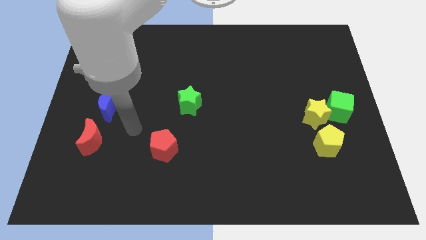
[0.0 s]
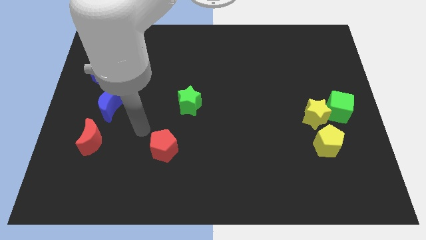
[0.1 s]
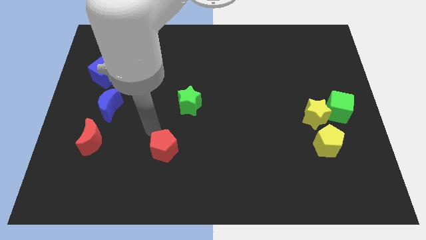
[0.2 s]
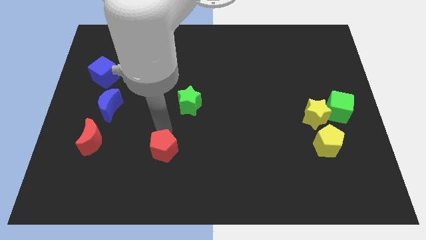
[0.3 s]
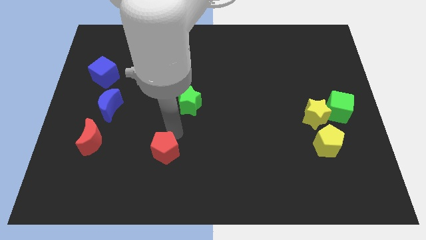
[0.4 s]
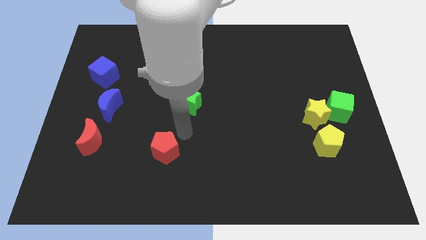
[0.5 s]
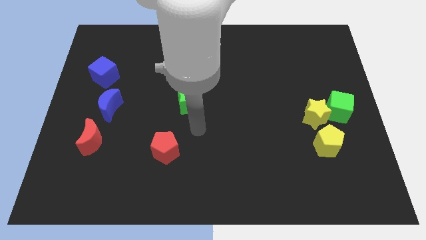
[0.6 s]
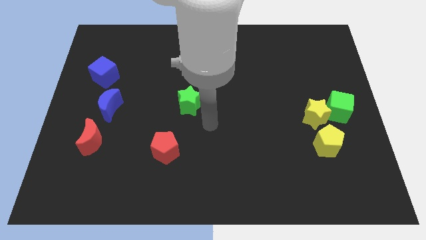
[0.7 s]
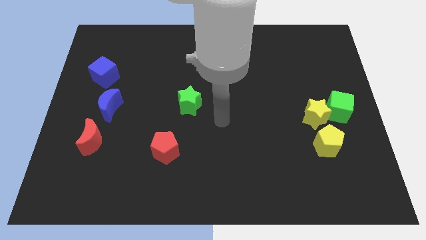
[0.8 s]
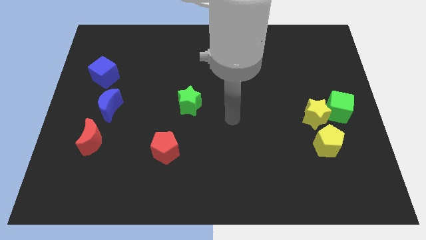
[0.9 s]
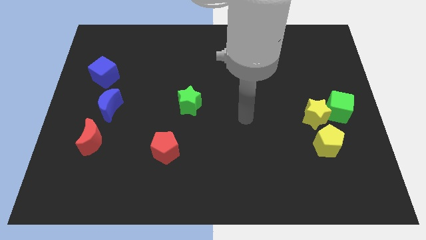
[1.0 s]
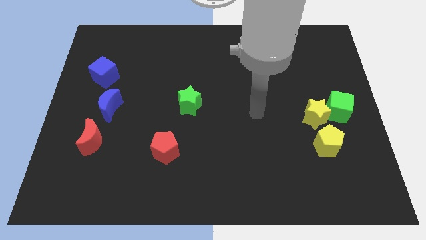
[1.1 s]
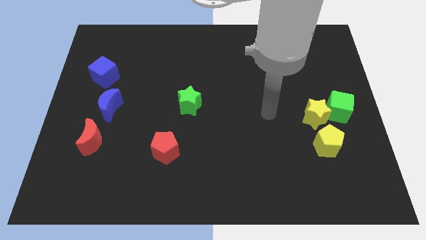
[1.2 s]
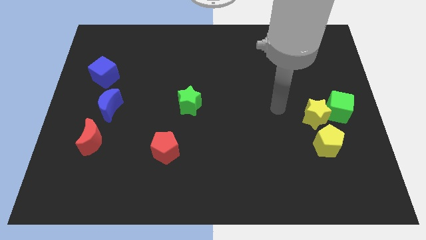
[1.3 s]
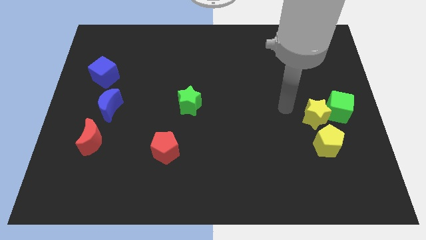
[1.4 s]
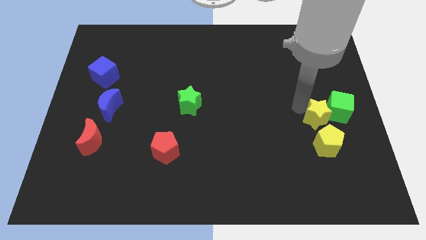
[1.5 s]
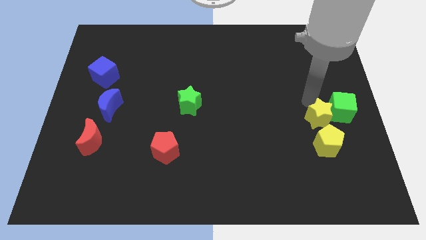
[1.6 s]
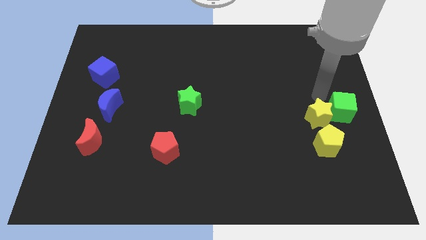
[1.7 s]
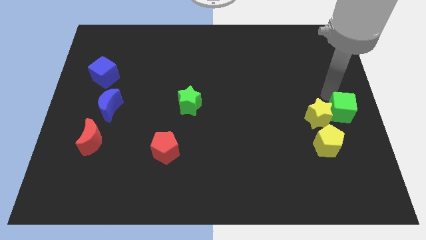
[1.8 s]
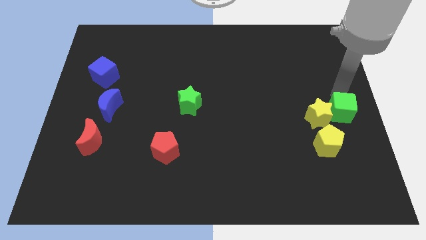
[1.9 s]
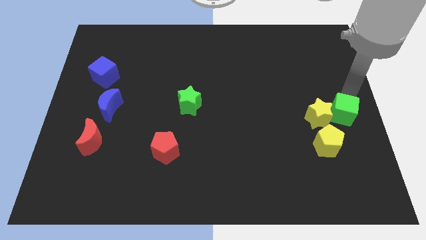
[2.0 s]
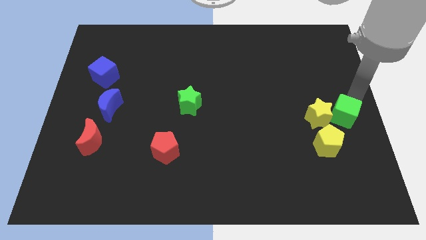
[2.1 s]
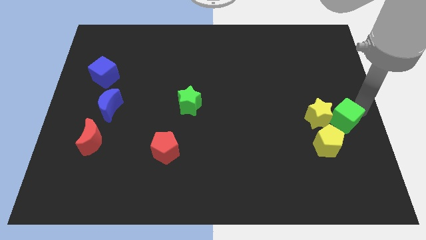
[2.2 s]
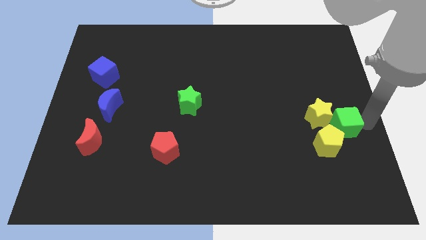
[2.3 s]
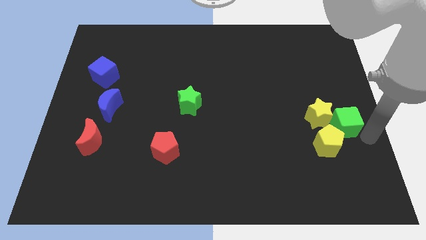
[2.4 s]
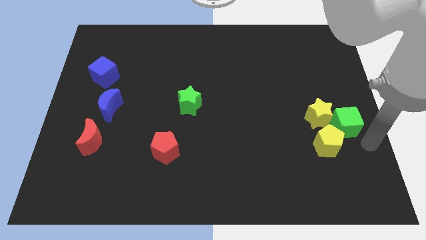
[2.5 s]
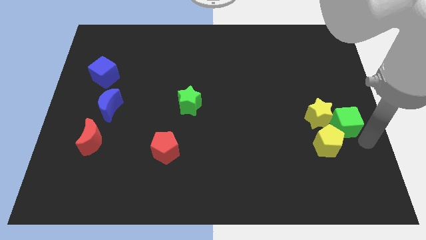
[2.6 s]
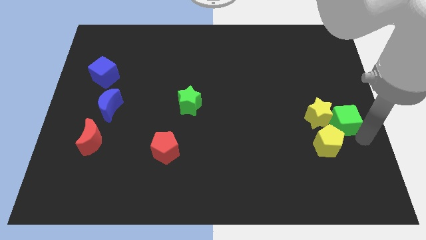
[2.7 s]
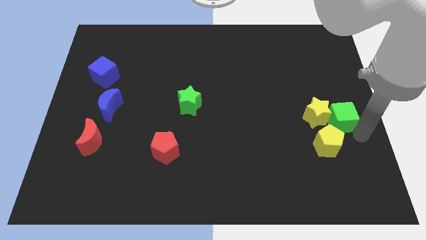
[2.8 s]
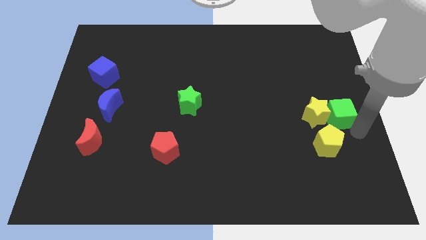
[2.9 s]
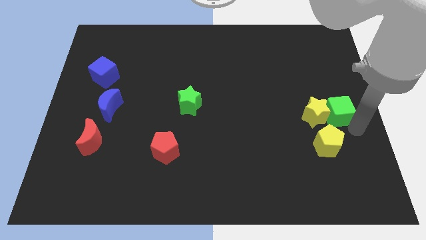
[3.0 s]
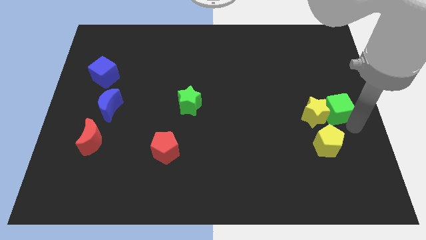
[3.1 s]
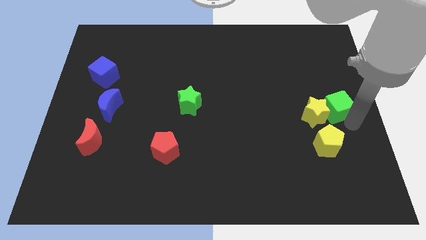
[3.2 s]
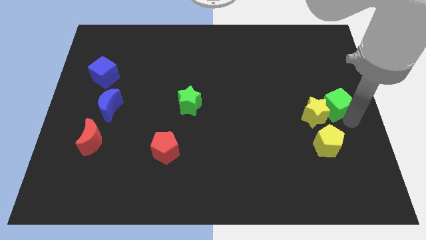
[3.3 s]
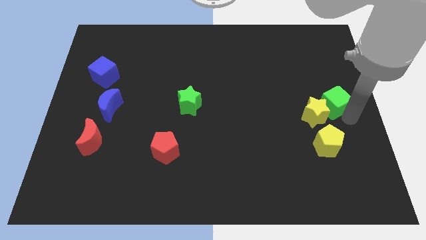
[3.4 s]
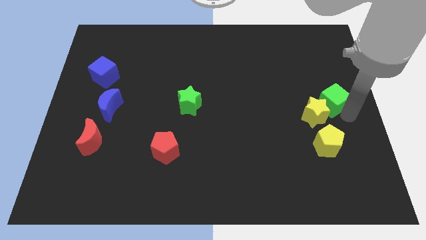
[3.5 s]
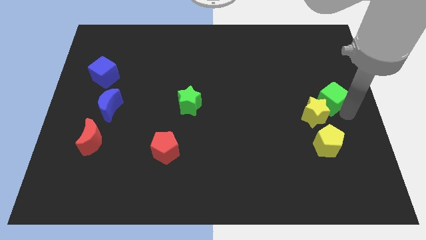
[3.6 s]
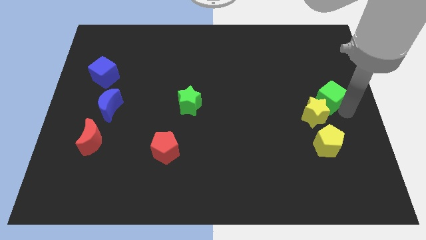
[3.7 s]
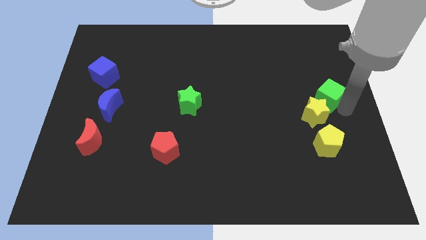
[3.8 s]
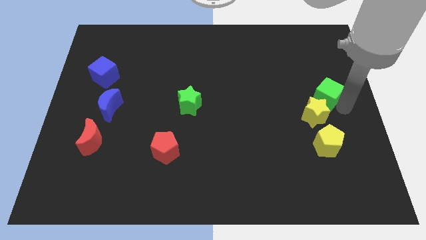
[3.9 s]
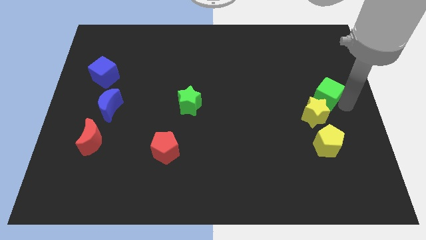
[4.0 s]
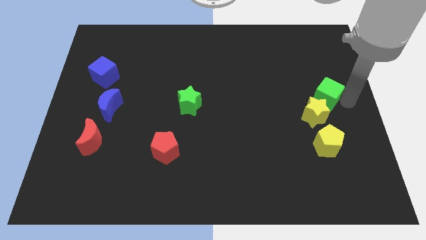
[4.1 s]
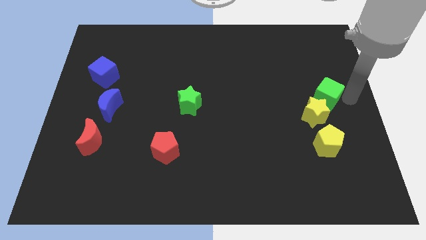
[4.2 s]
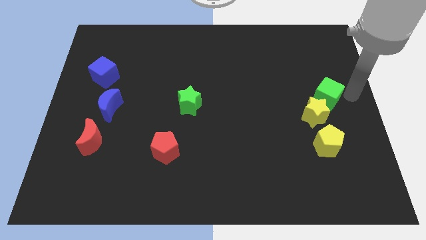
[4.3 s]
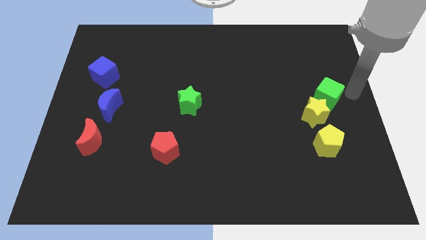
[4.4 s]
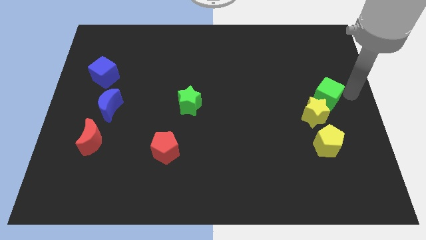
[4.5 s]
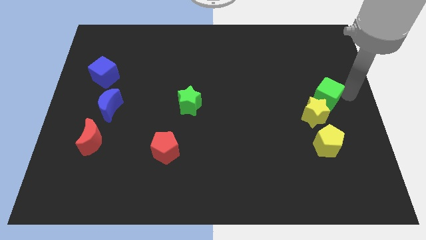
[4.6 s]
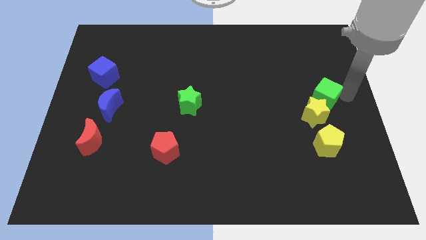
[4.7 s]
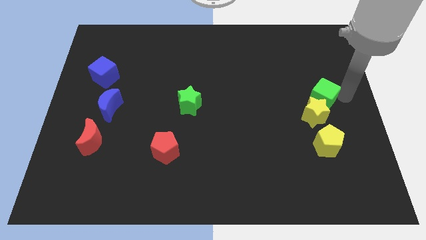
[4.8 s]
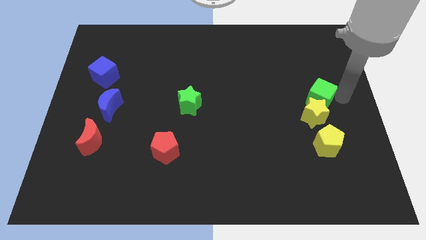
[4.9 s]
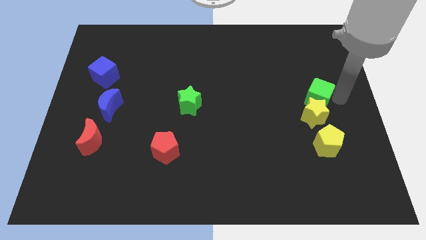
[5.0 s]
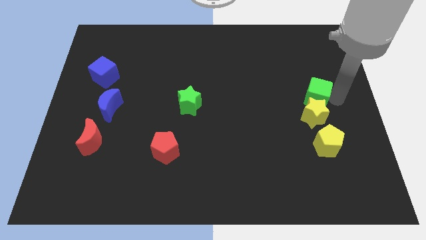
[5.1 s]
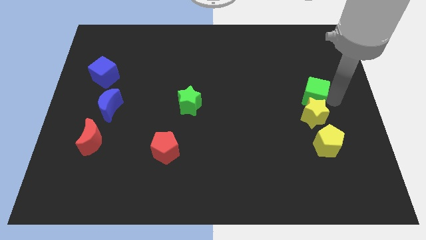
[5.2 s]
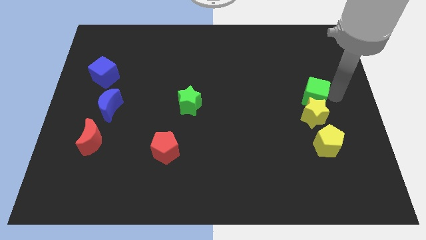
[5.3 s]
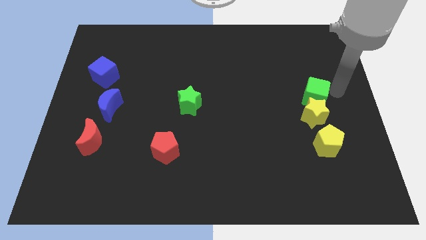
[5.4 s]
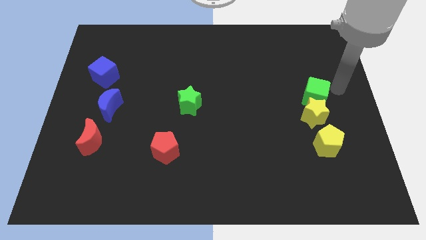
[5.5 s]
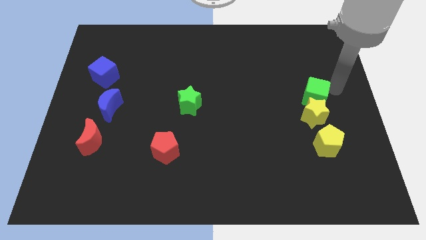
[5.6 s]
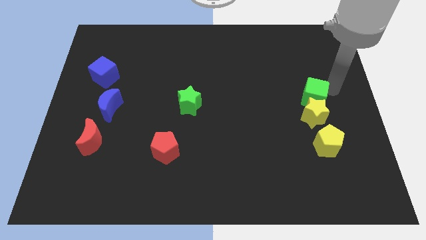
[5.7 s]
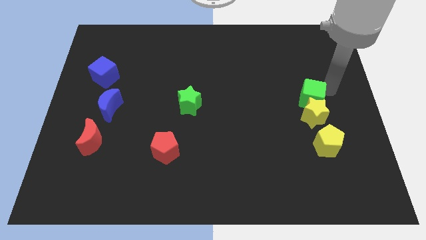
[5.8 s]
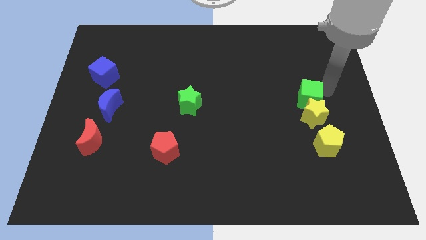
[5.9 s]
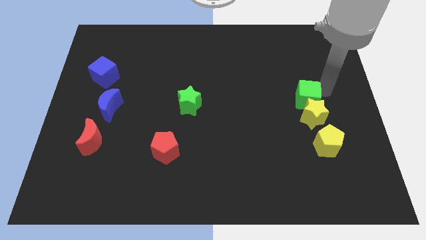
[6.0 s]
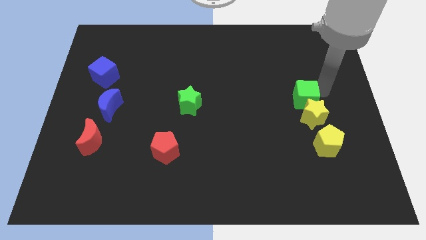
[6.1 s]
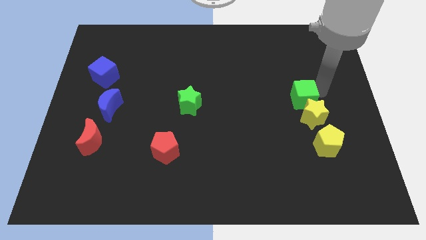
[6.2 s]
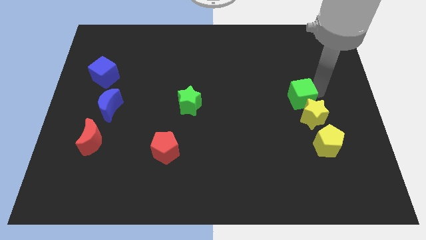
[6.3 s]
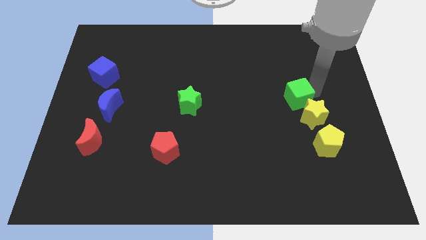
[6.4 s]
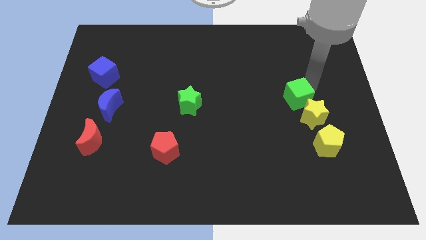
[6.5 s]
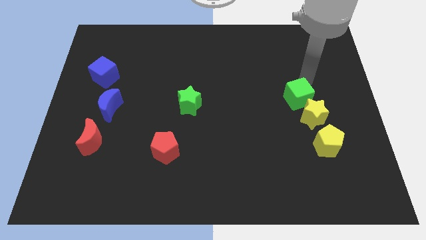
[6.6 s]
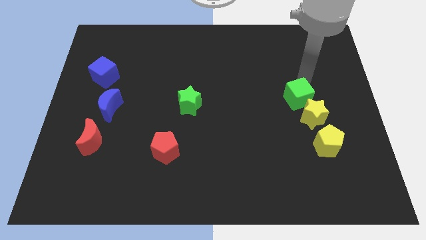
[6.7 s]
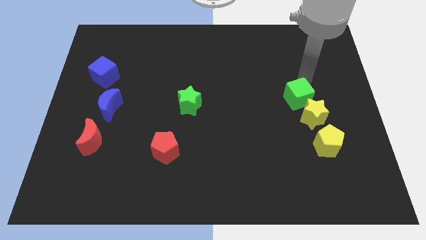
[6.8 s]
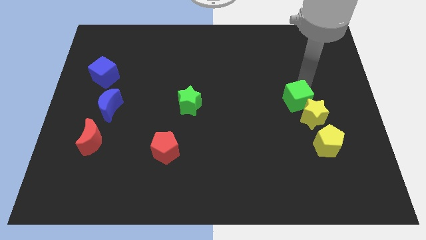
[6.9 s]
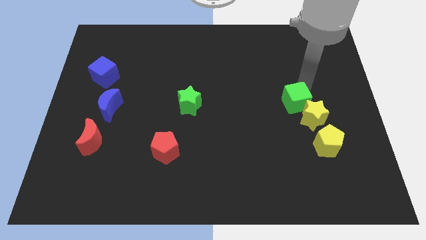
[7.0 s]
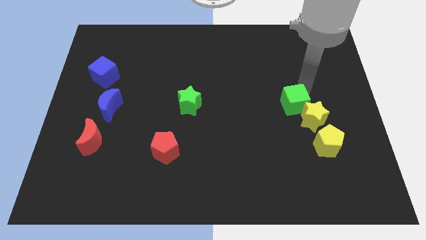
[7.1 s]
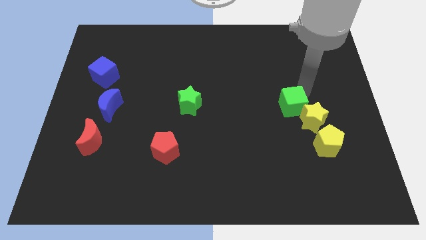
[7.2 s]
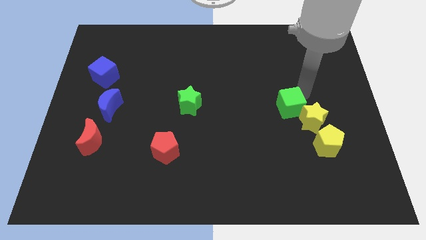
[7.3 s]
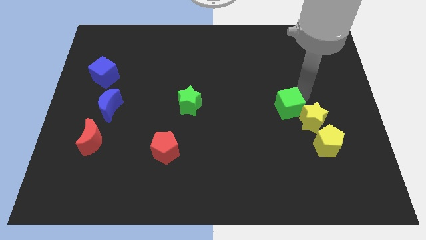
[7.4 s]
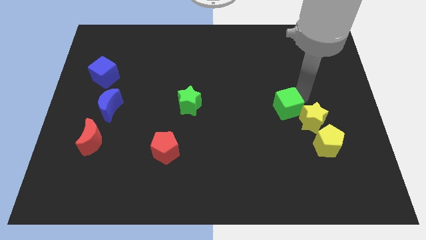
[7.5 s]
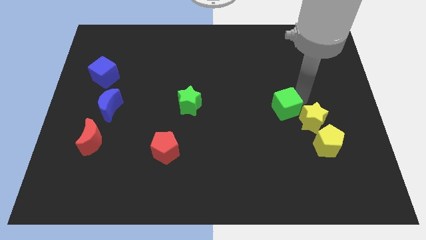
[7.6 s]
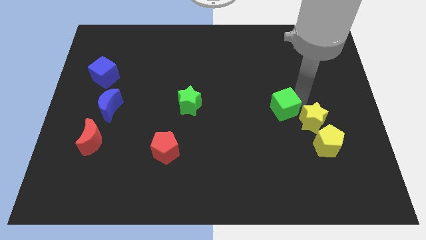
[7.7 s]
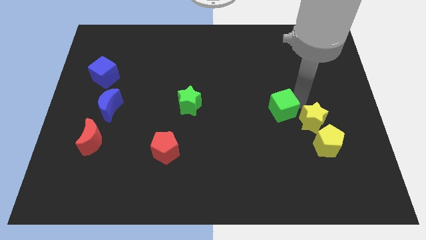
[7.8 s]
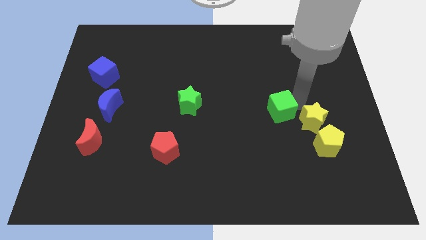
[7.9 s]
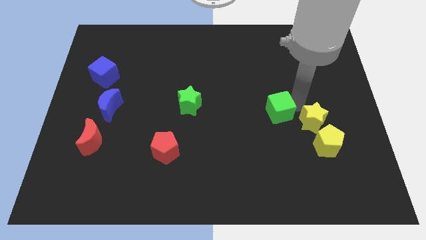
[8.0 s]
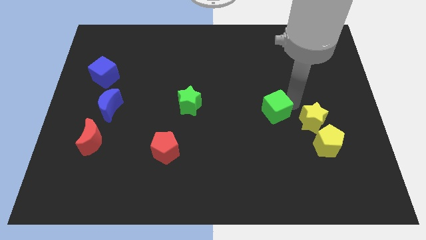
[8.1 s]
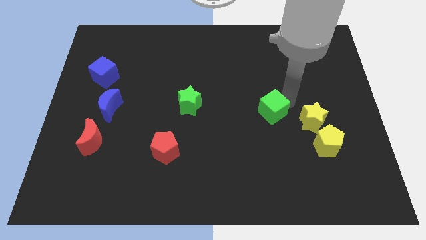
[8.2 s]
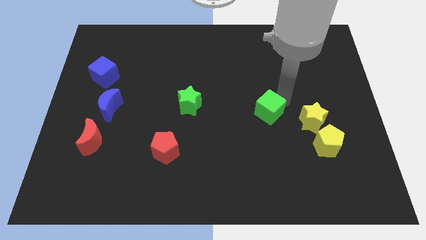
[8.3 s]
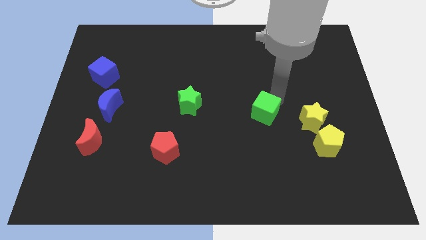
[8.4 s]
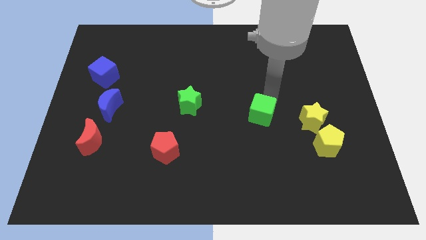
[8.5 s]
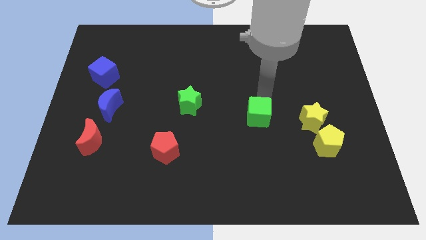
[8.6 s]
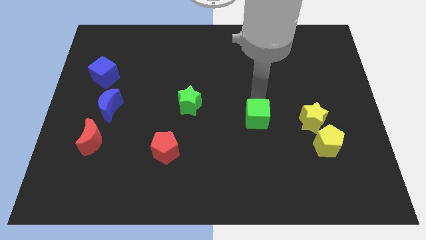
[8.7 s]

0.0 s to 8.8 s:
slide the green cube downwards and then left a little
